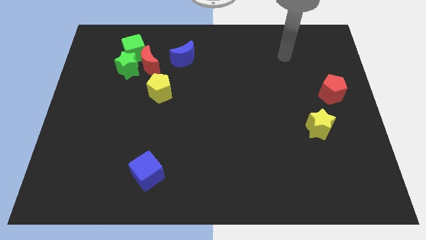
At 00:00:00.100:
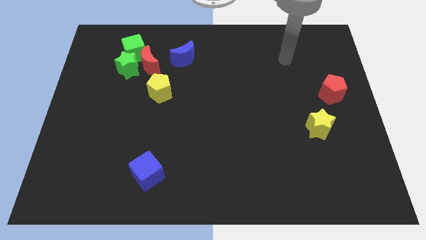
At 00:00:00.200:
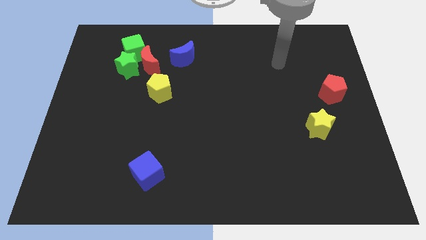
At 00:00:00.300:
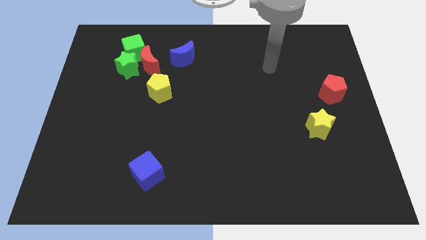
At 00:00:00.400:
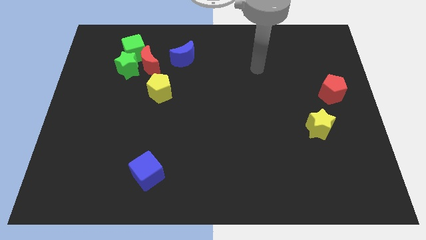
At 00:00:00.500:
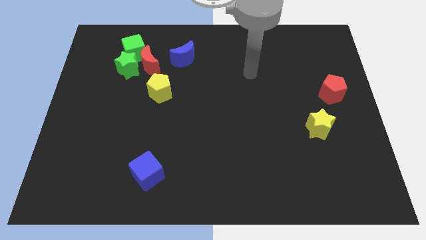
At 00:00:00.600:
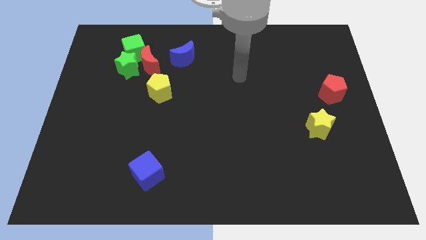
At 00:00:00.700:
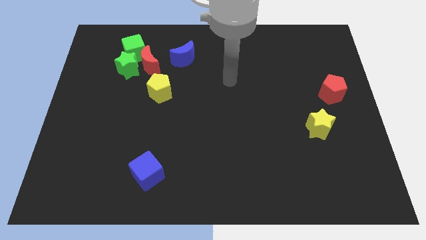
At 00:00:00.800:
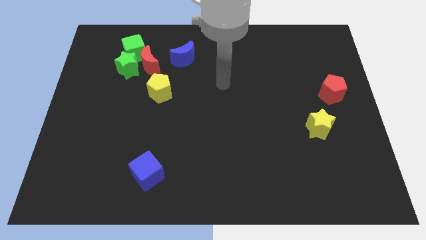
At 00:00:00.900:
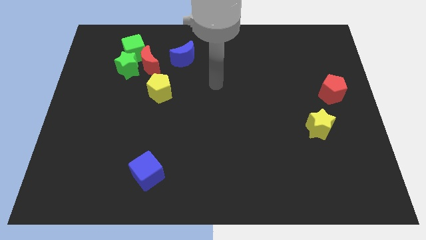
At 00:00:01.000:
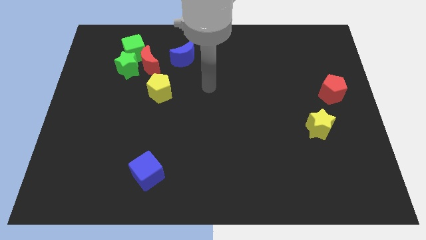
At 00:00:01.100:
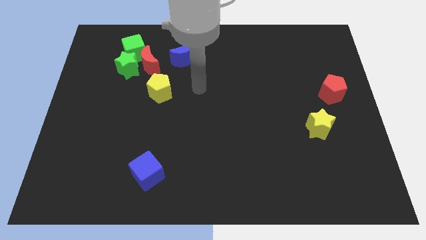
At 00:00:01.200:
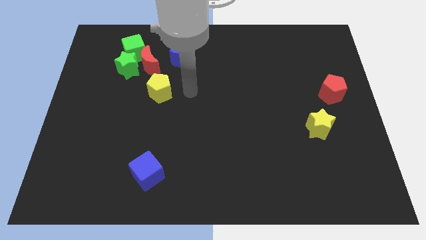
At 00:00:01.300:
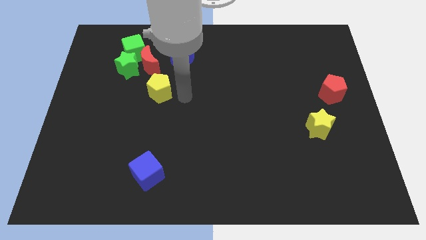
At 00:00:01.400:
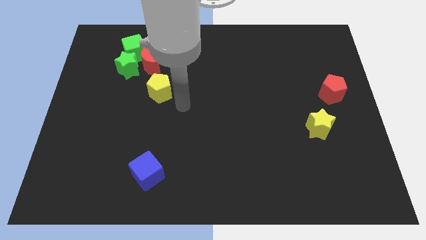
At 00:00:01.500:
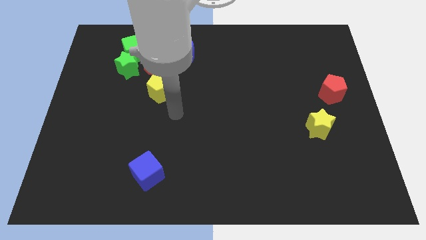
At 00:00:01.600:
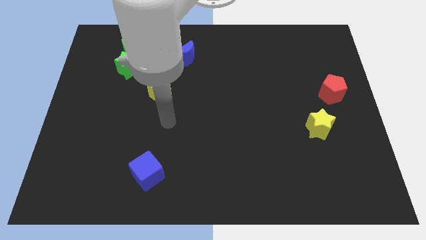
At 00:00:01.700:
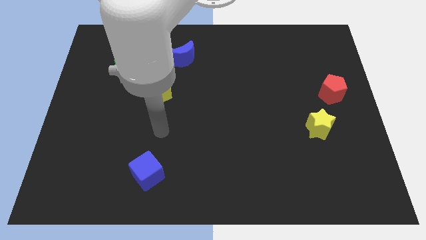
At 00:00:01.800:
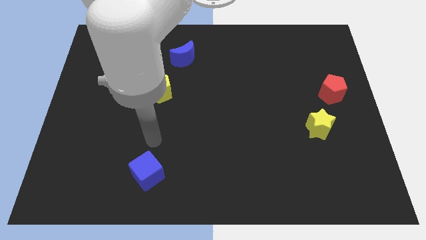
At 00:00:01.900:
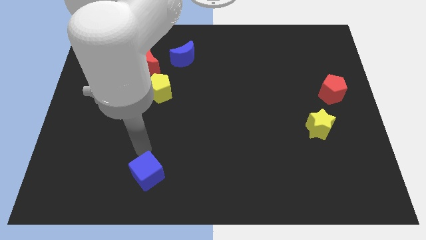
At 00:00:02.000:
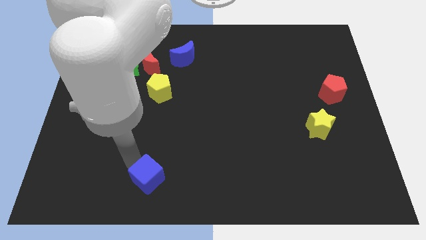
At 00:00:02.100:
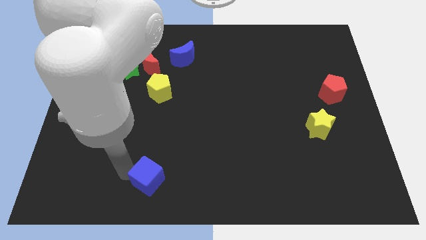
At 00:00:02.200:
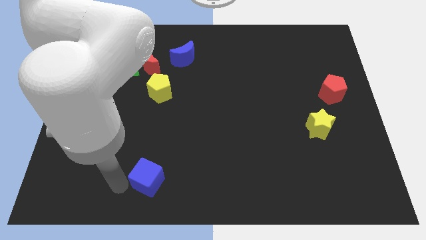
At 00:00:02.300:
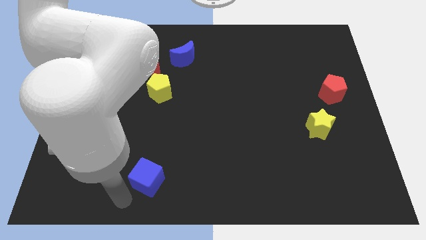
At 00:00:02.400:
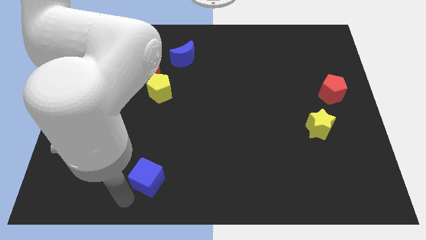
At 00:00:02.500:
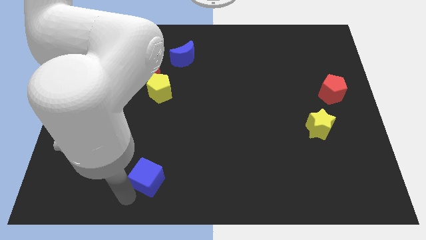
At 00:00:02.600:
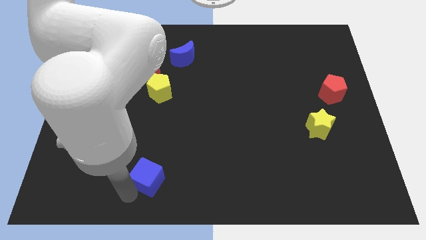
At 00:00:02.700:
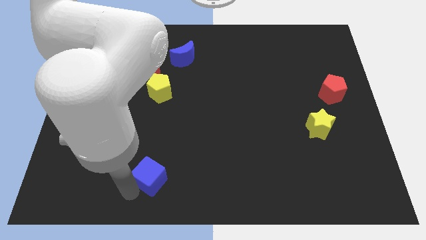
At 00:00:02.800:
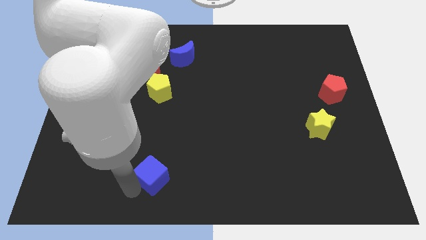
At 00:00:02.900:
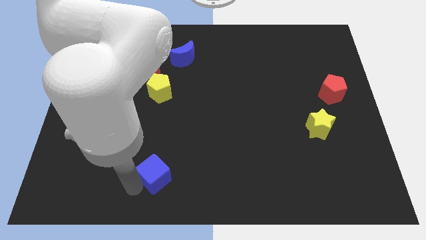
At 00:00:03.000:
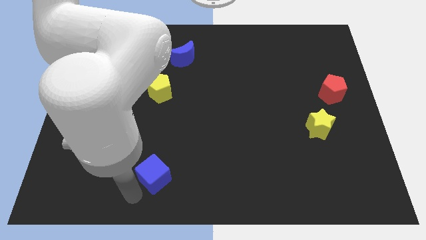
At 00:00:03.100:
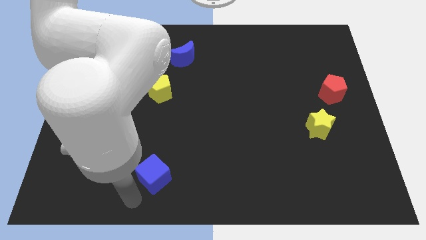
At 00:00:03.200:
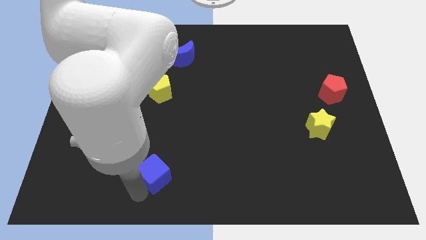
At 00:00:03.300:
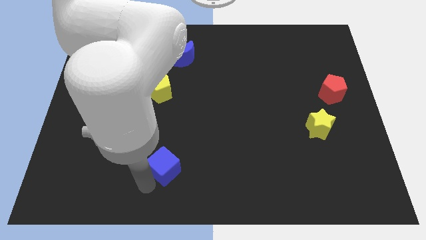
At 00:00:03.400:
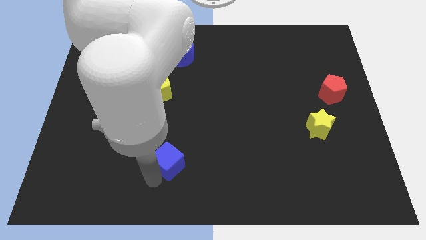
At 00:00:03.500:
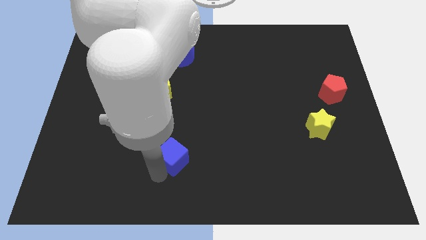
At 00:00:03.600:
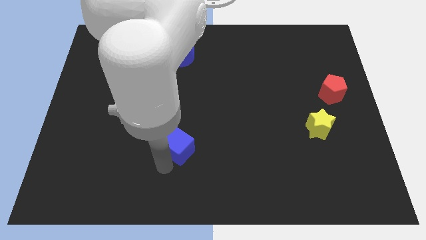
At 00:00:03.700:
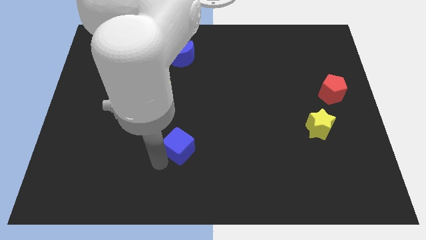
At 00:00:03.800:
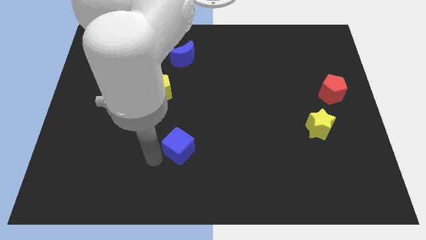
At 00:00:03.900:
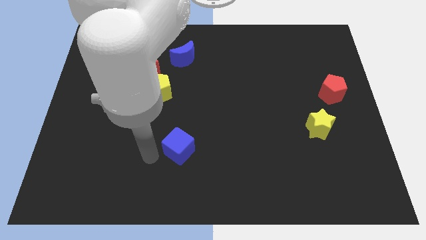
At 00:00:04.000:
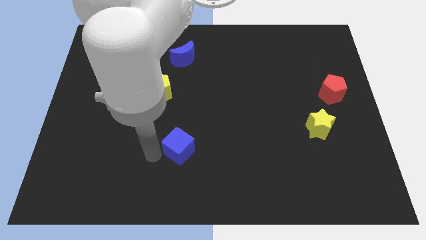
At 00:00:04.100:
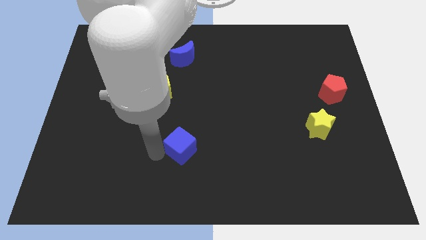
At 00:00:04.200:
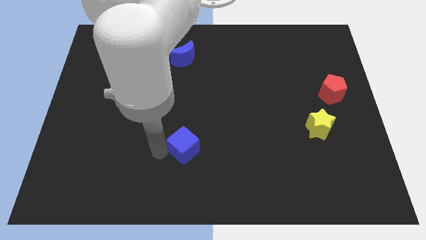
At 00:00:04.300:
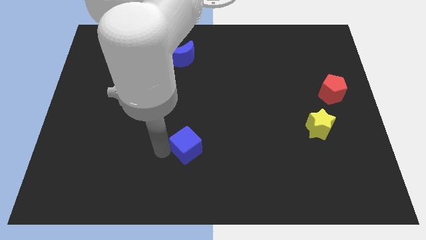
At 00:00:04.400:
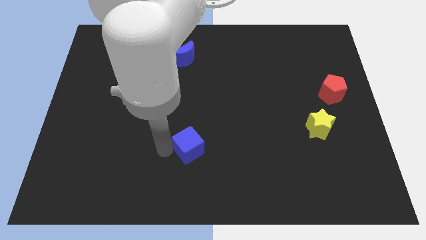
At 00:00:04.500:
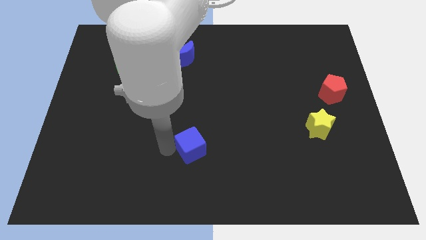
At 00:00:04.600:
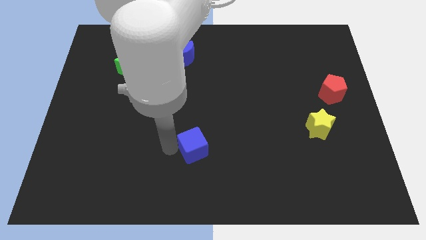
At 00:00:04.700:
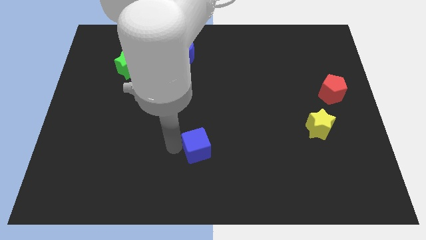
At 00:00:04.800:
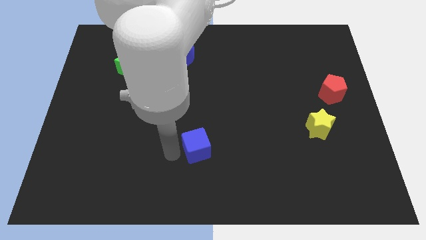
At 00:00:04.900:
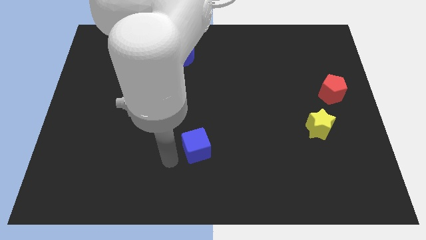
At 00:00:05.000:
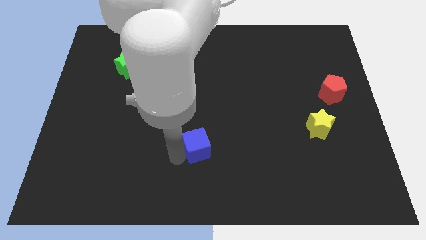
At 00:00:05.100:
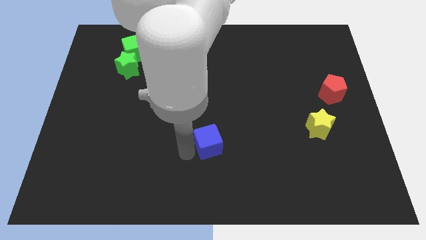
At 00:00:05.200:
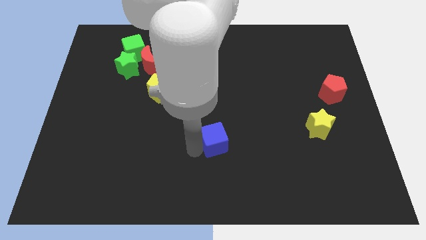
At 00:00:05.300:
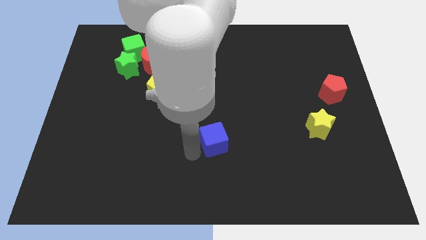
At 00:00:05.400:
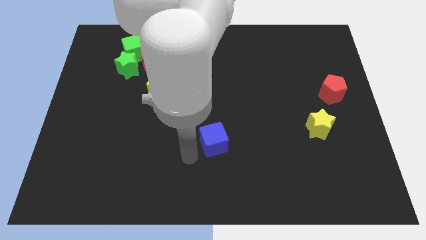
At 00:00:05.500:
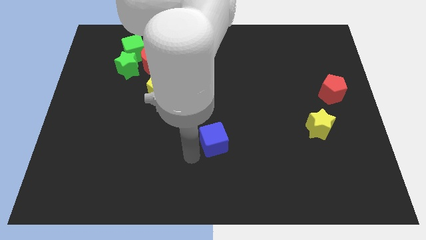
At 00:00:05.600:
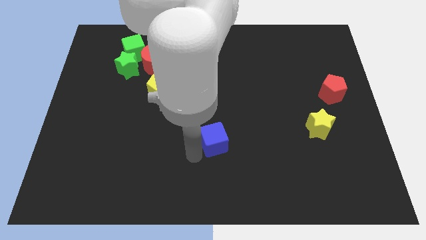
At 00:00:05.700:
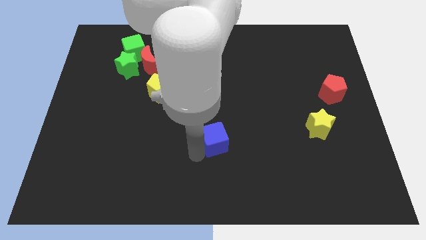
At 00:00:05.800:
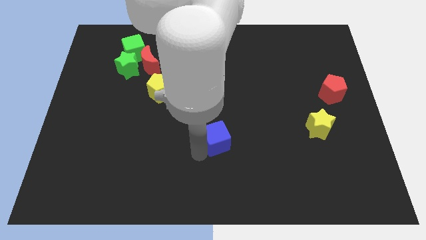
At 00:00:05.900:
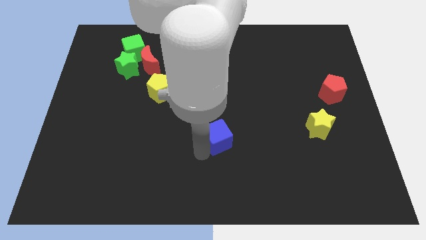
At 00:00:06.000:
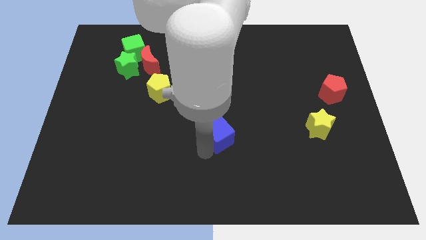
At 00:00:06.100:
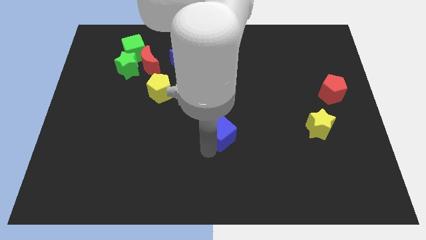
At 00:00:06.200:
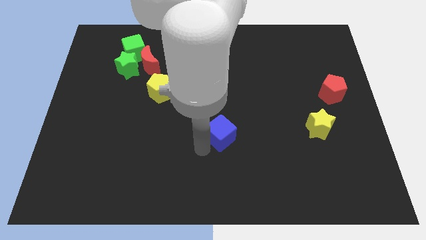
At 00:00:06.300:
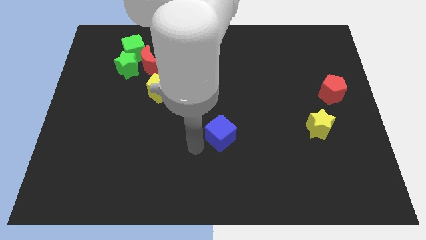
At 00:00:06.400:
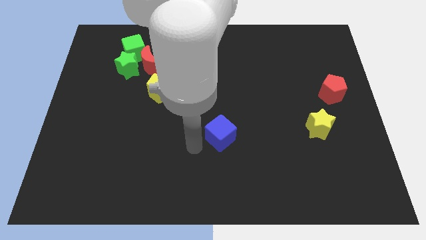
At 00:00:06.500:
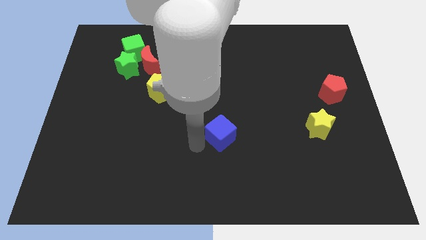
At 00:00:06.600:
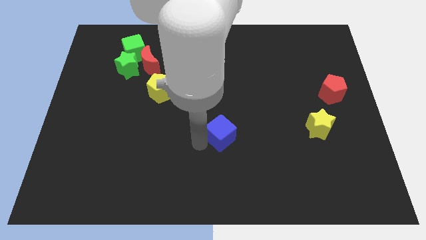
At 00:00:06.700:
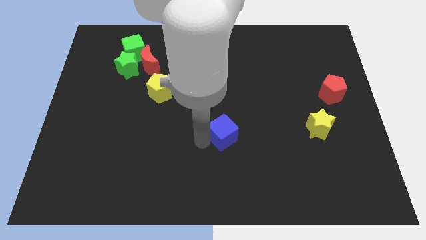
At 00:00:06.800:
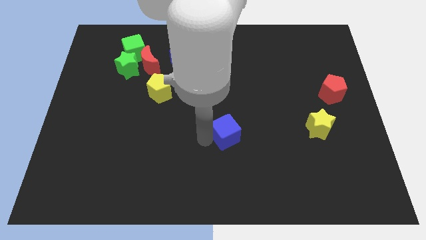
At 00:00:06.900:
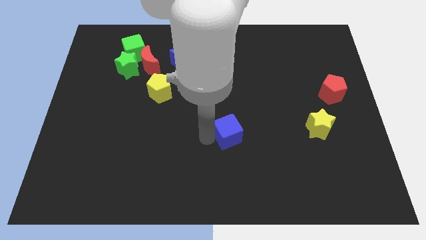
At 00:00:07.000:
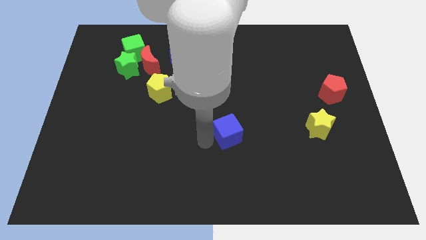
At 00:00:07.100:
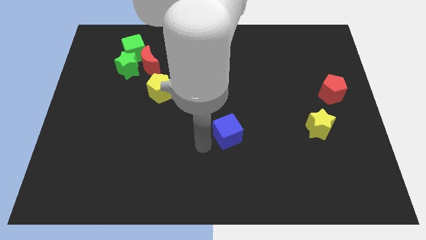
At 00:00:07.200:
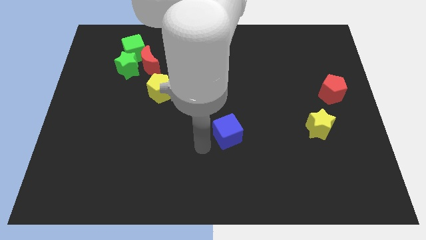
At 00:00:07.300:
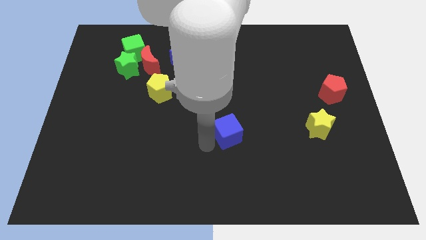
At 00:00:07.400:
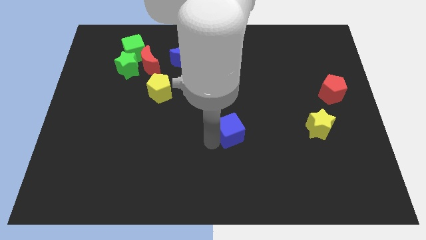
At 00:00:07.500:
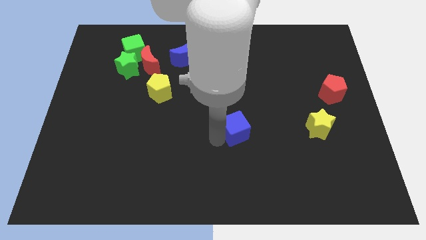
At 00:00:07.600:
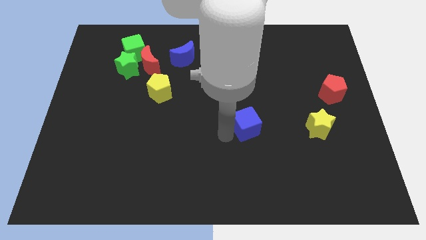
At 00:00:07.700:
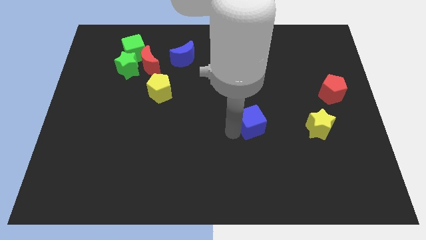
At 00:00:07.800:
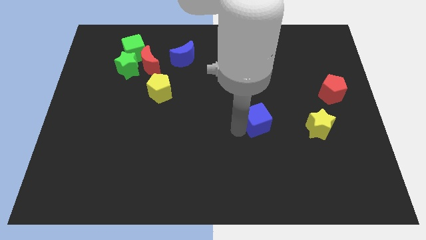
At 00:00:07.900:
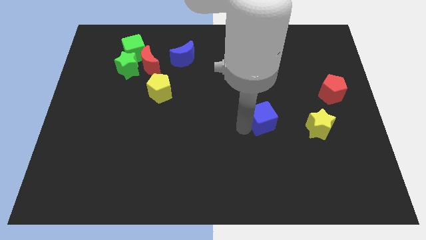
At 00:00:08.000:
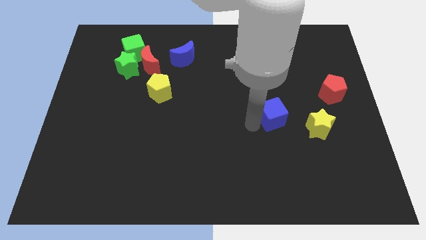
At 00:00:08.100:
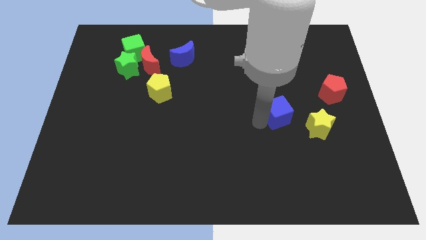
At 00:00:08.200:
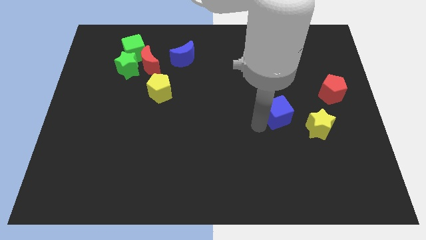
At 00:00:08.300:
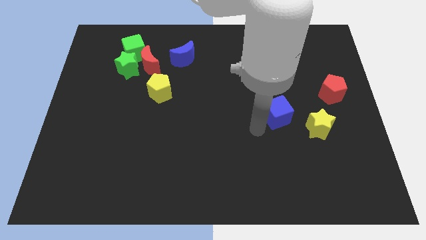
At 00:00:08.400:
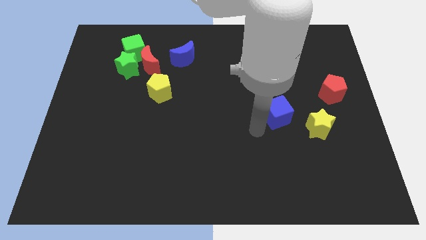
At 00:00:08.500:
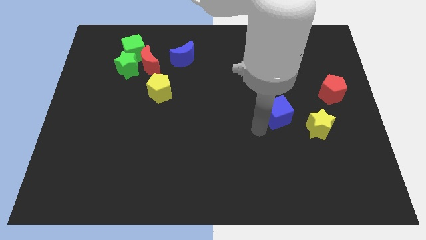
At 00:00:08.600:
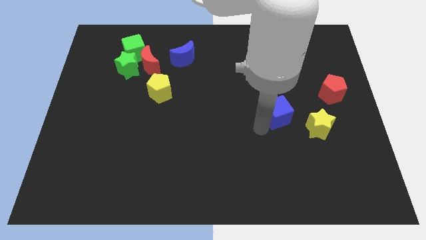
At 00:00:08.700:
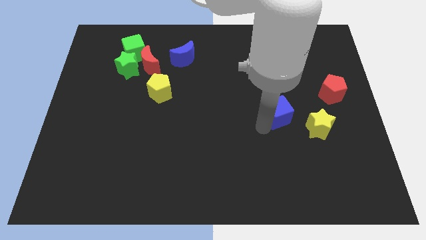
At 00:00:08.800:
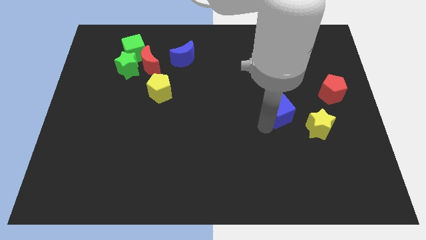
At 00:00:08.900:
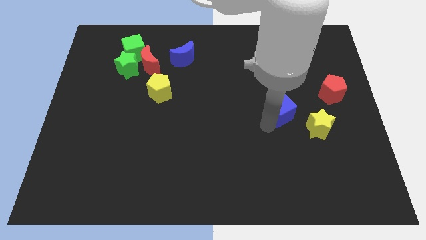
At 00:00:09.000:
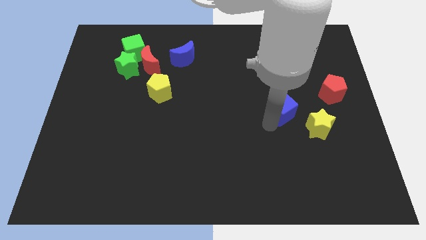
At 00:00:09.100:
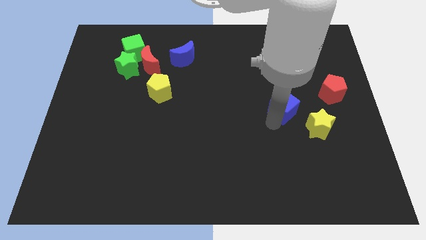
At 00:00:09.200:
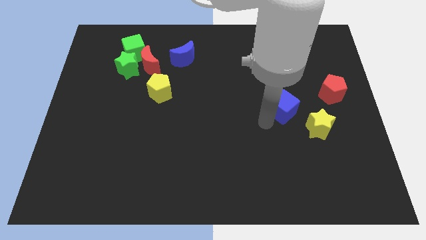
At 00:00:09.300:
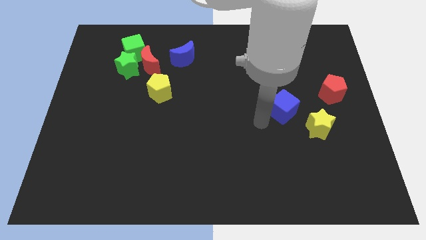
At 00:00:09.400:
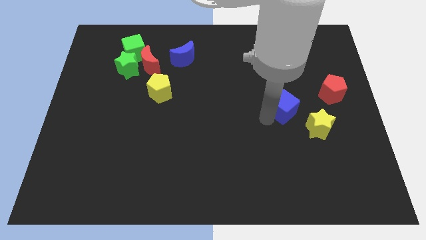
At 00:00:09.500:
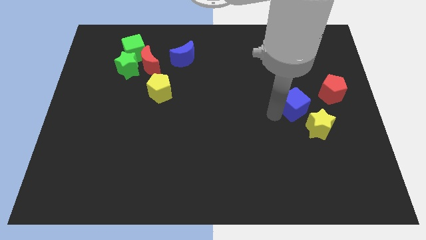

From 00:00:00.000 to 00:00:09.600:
move the blue cube above the yellow star
